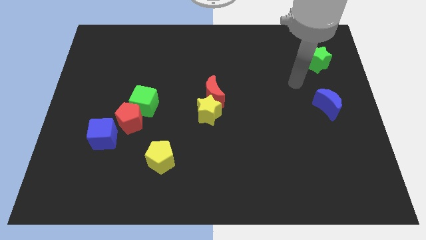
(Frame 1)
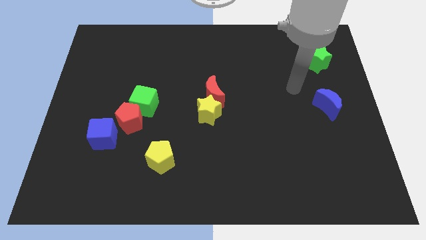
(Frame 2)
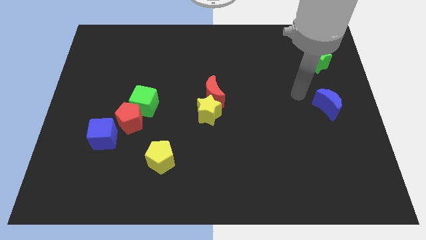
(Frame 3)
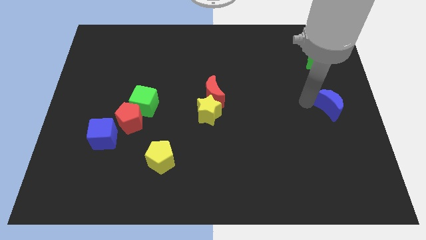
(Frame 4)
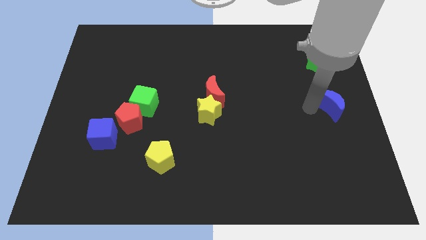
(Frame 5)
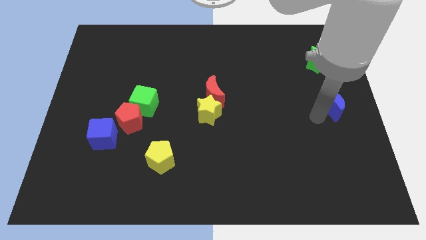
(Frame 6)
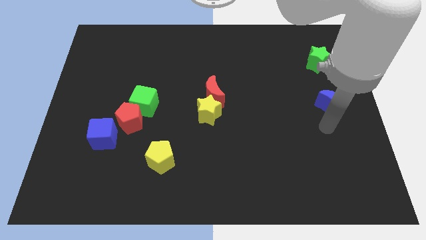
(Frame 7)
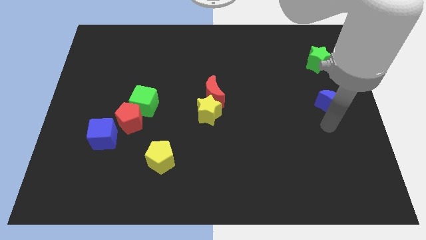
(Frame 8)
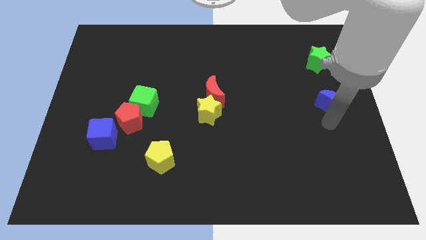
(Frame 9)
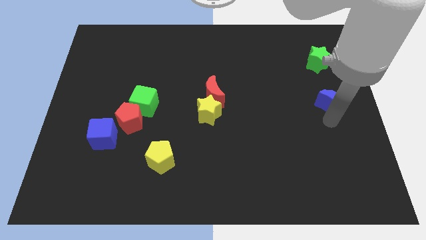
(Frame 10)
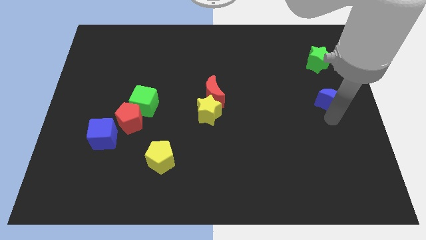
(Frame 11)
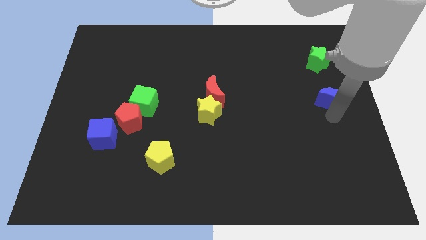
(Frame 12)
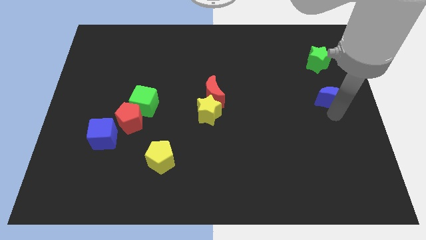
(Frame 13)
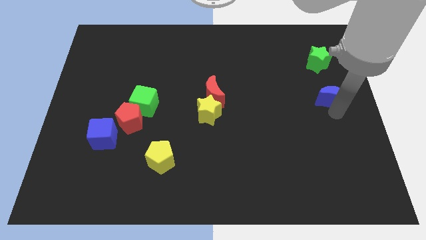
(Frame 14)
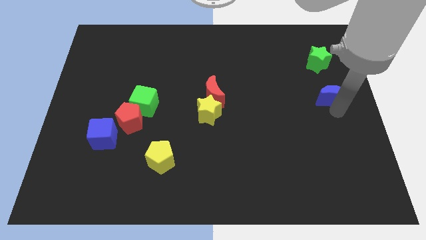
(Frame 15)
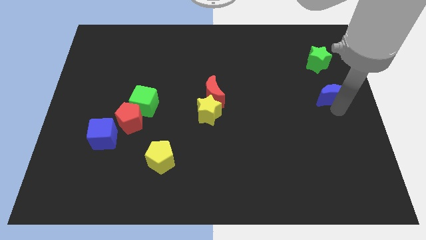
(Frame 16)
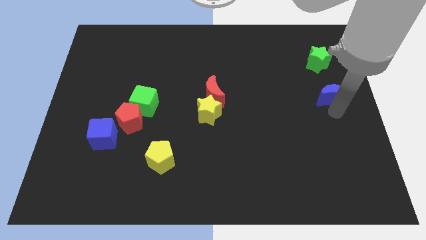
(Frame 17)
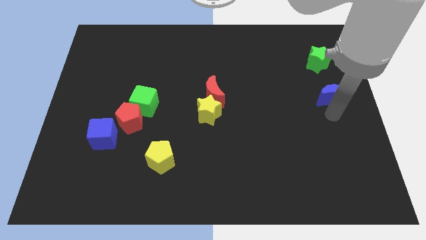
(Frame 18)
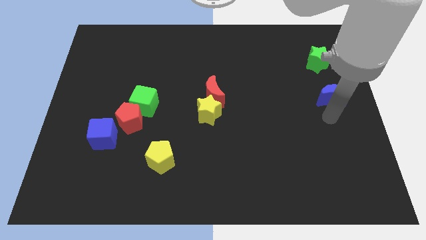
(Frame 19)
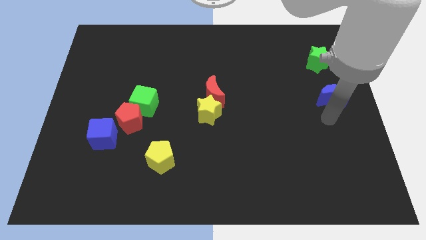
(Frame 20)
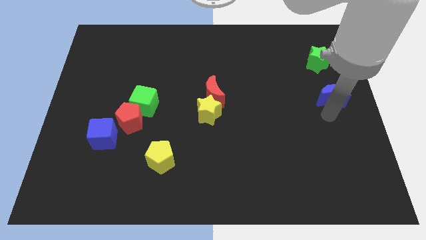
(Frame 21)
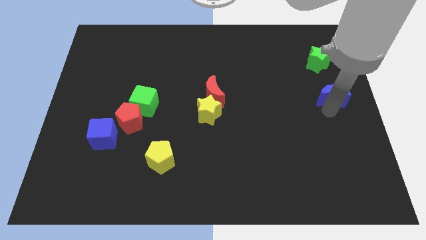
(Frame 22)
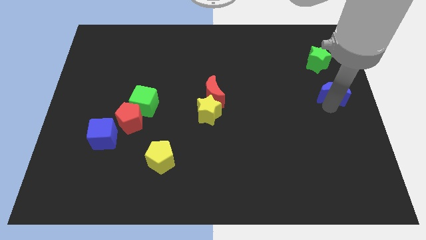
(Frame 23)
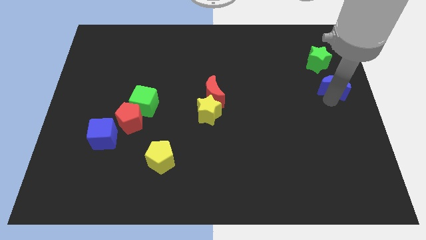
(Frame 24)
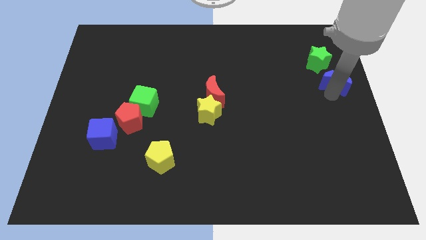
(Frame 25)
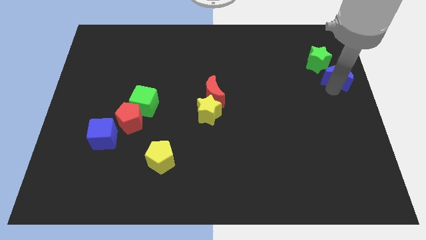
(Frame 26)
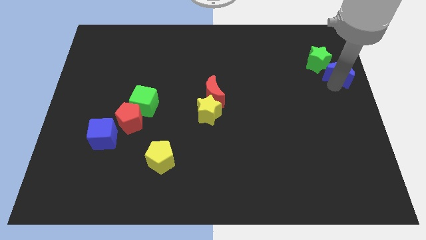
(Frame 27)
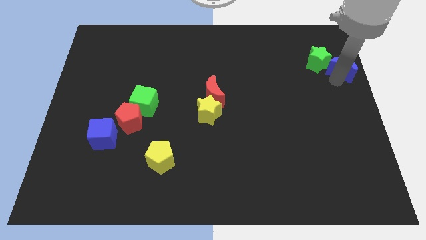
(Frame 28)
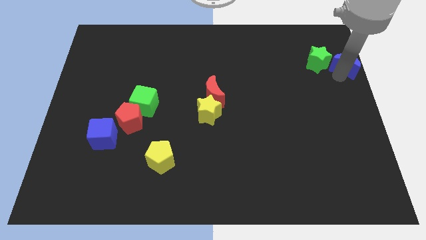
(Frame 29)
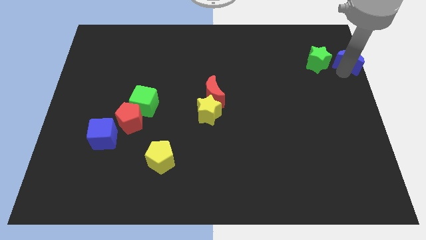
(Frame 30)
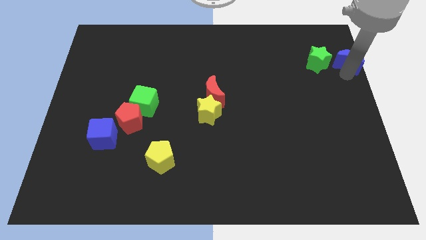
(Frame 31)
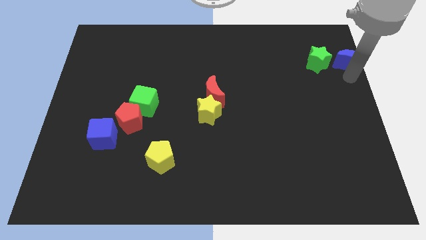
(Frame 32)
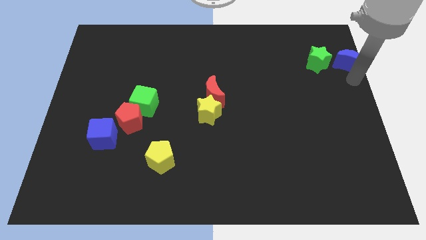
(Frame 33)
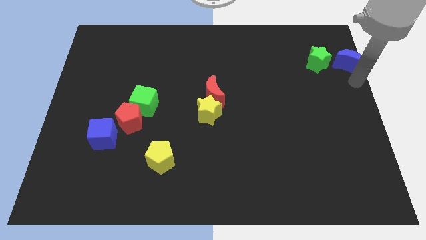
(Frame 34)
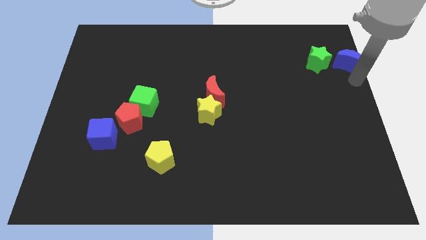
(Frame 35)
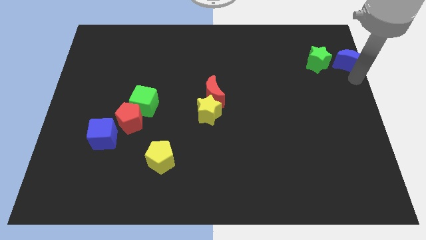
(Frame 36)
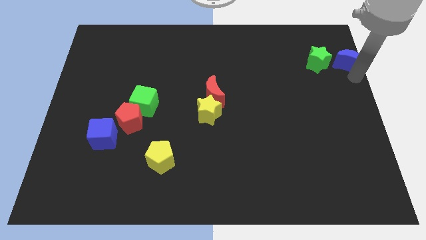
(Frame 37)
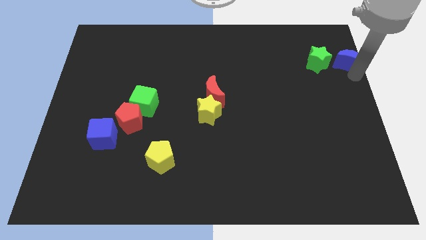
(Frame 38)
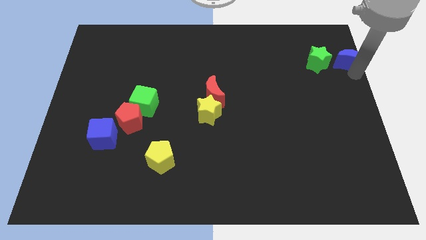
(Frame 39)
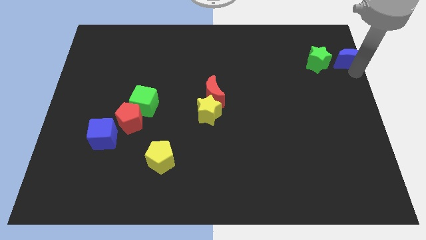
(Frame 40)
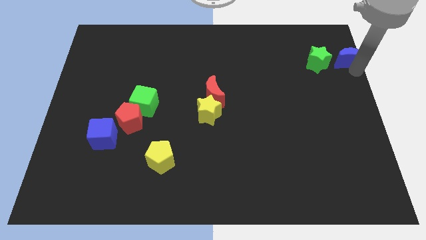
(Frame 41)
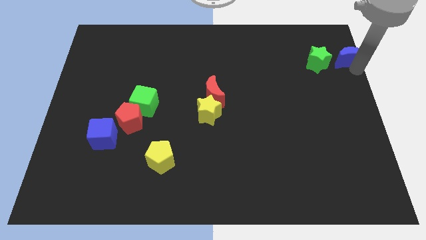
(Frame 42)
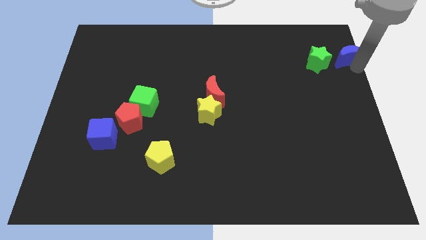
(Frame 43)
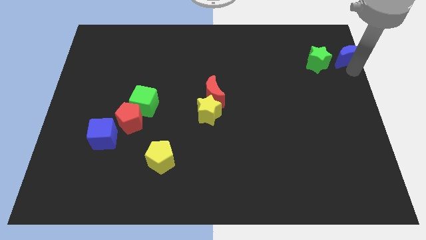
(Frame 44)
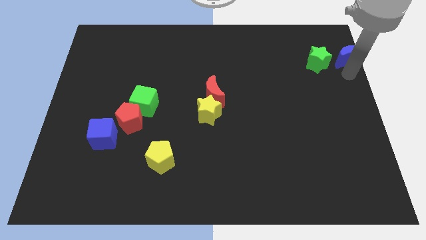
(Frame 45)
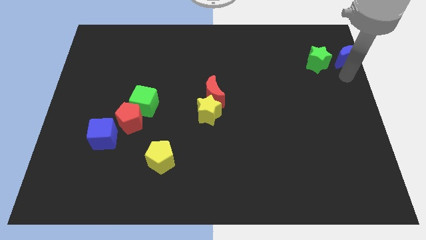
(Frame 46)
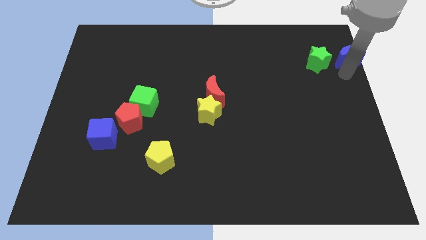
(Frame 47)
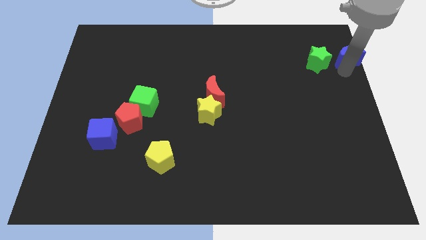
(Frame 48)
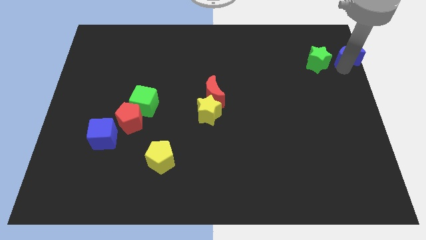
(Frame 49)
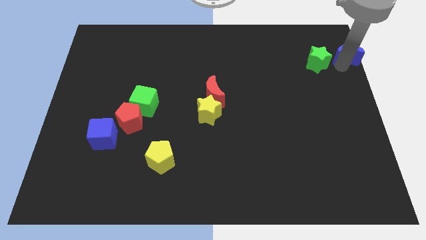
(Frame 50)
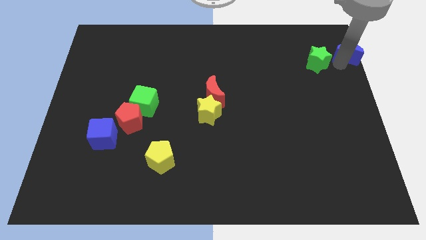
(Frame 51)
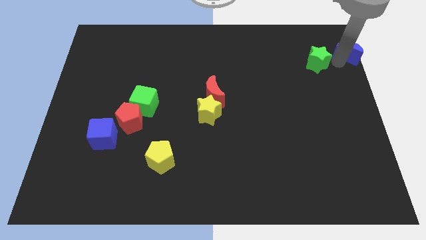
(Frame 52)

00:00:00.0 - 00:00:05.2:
move the blue moon to the upper right corner

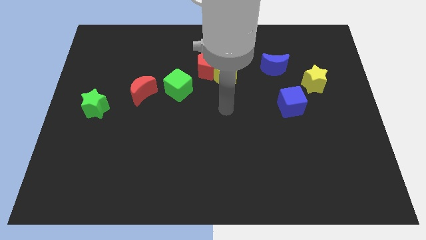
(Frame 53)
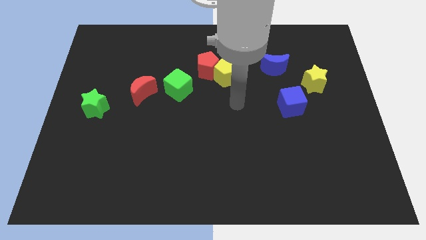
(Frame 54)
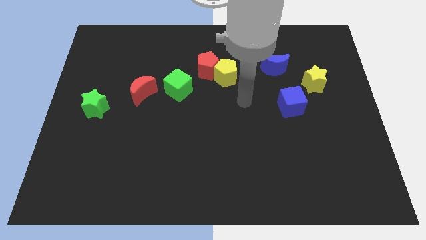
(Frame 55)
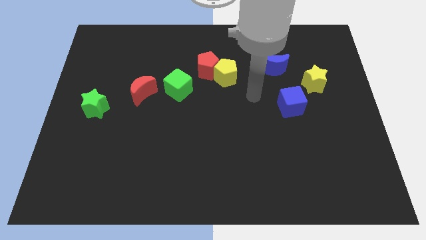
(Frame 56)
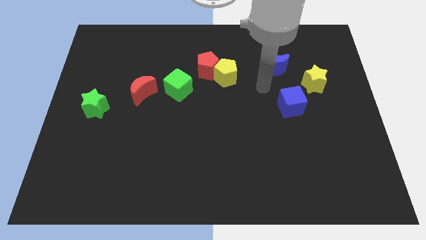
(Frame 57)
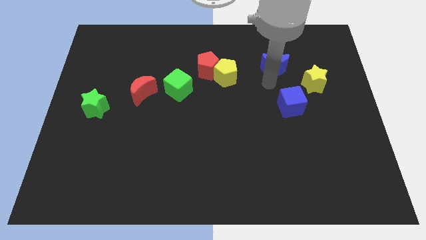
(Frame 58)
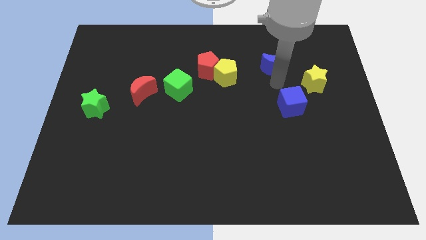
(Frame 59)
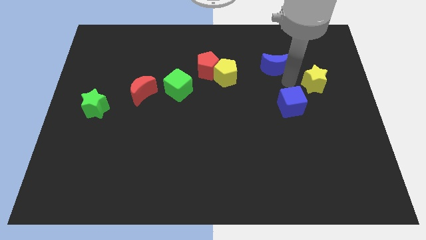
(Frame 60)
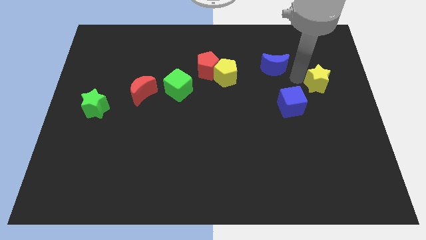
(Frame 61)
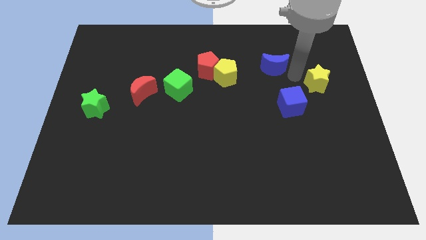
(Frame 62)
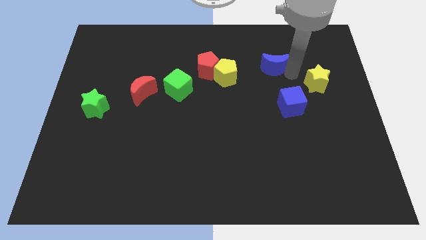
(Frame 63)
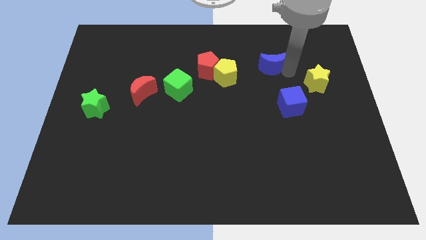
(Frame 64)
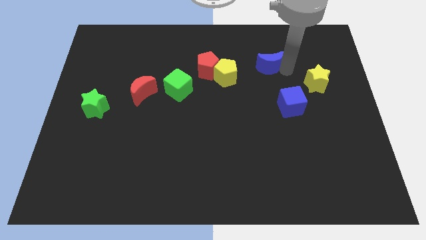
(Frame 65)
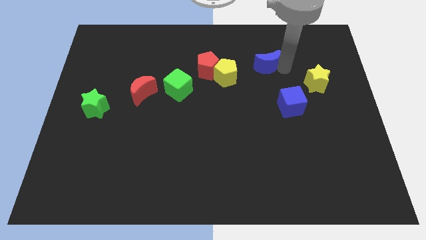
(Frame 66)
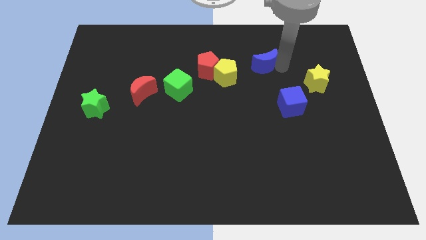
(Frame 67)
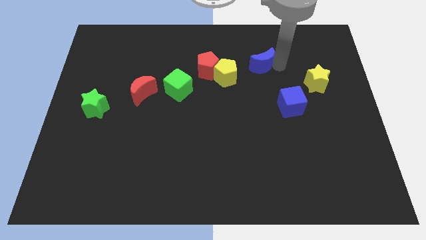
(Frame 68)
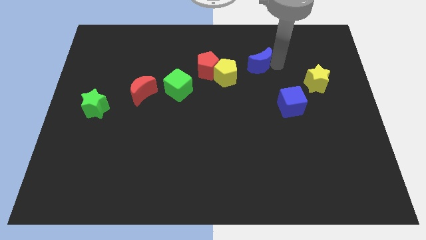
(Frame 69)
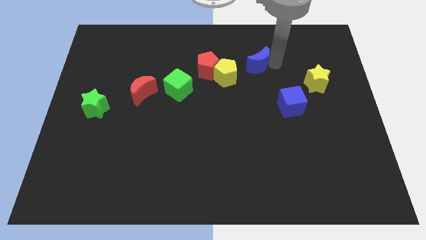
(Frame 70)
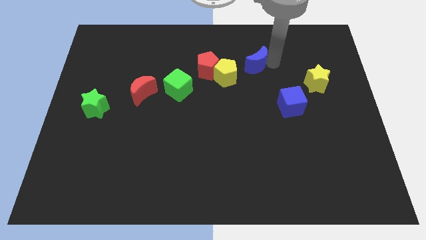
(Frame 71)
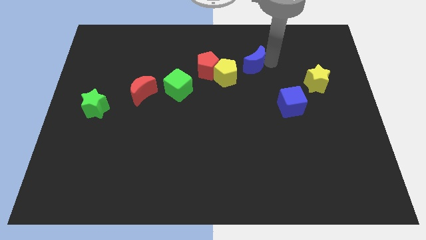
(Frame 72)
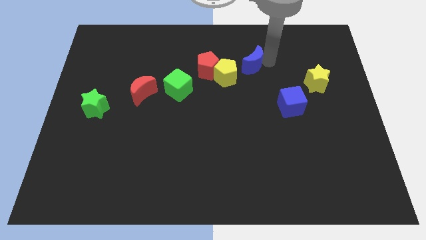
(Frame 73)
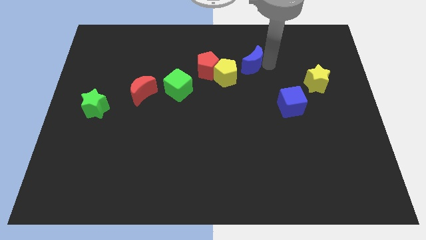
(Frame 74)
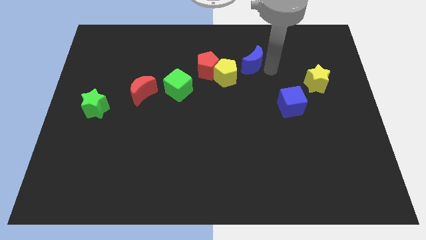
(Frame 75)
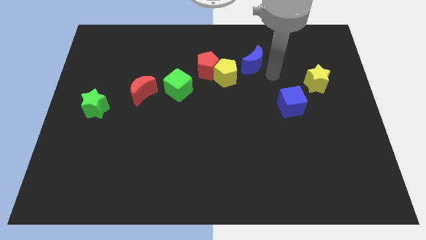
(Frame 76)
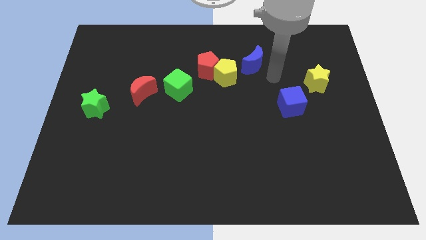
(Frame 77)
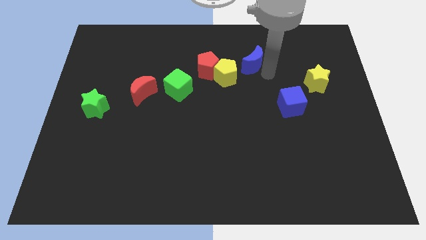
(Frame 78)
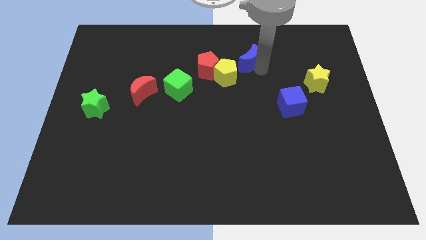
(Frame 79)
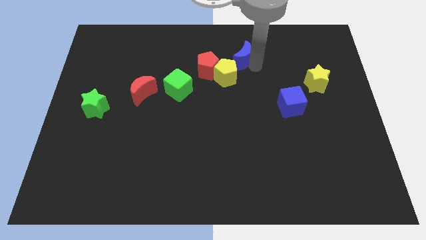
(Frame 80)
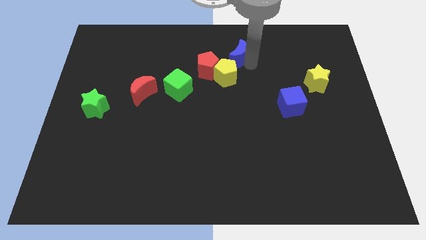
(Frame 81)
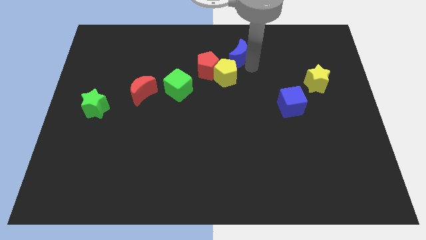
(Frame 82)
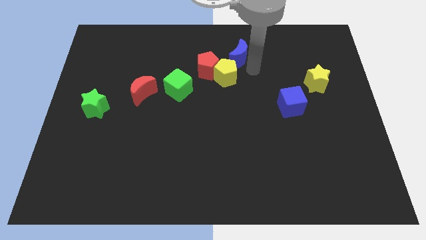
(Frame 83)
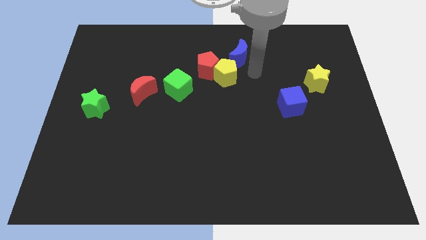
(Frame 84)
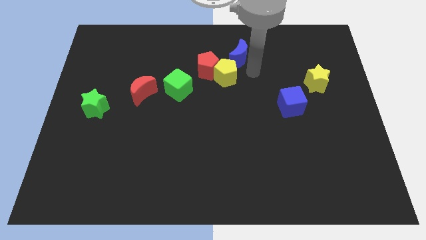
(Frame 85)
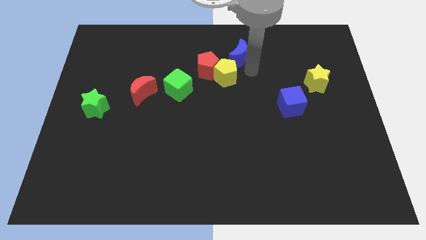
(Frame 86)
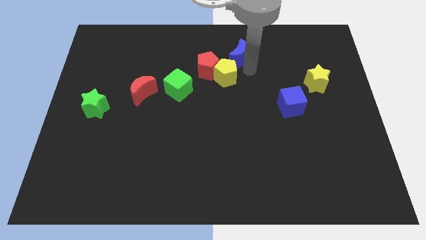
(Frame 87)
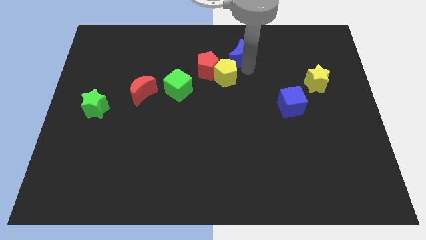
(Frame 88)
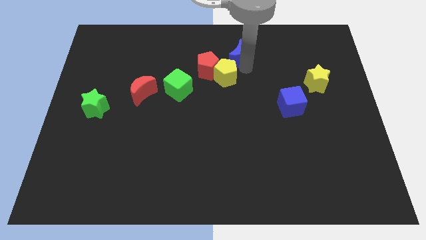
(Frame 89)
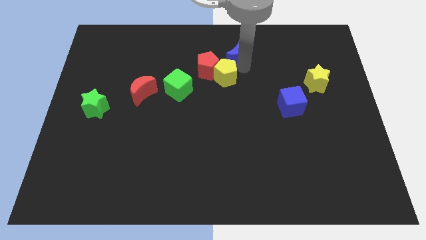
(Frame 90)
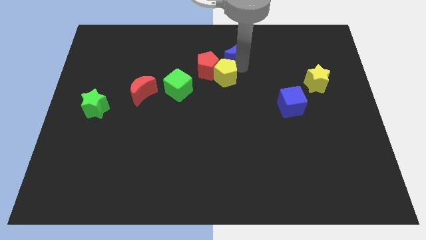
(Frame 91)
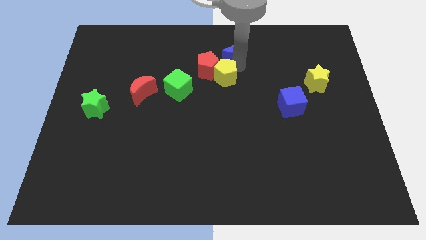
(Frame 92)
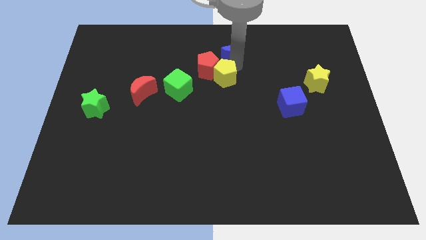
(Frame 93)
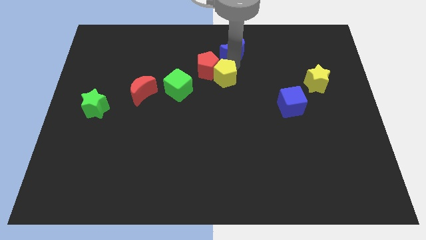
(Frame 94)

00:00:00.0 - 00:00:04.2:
put the blue moon to the towards your base
